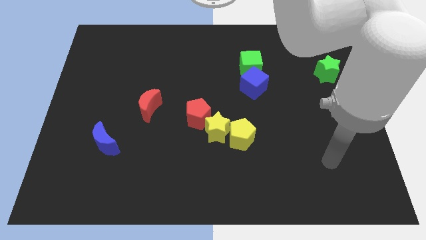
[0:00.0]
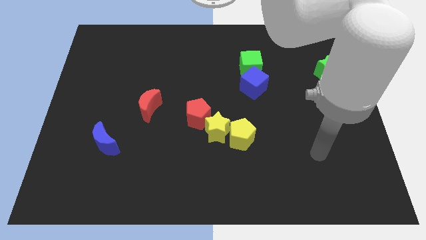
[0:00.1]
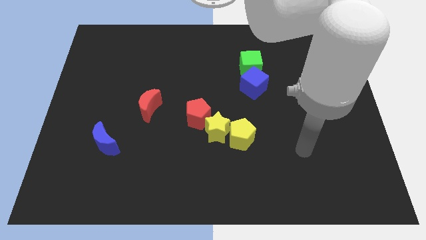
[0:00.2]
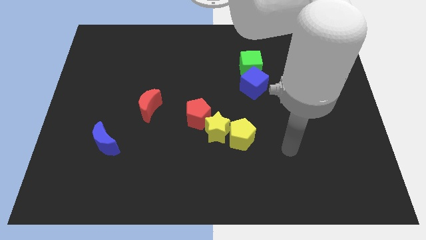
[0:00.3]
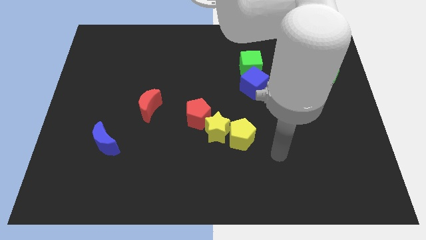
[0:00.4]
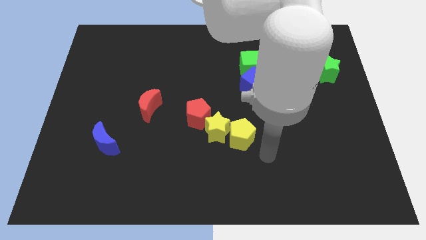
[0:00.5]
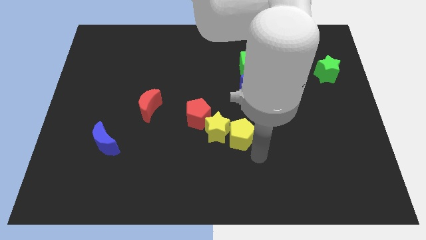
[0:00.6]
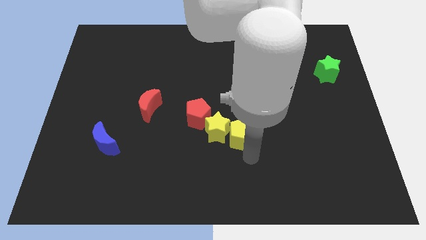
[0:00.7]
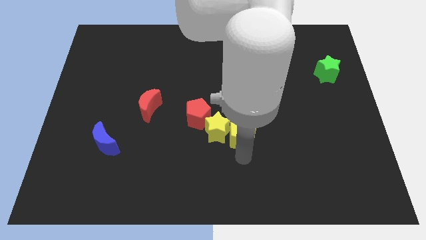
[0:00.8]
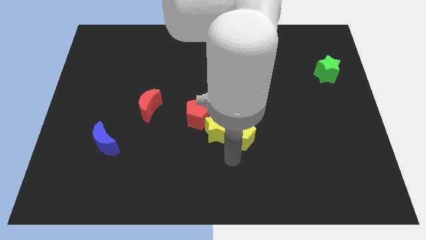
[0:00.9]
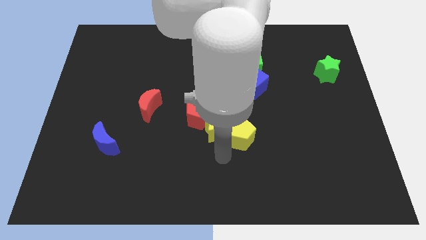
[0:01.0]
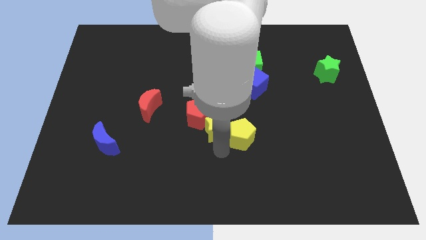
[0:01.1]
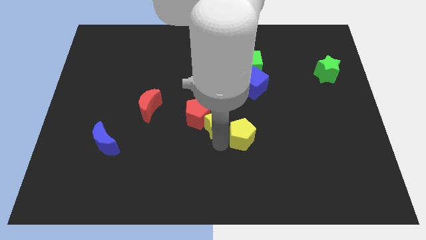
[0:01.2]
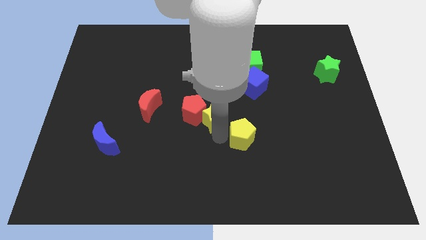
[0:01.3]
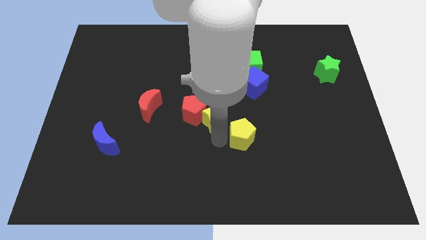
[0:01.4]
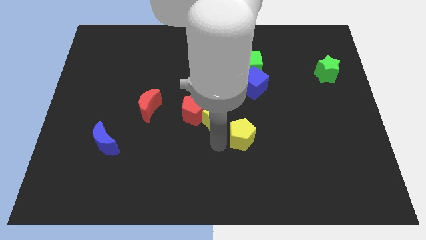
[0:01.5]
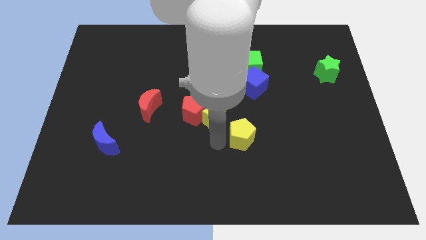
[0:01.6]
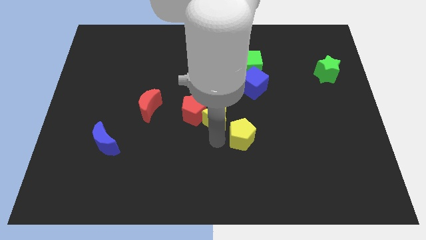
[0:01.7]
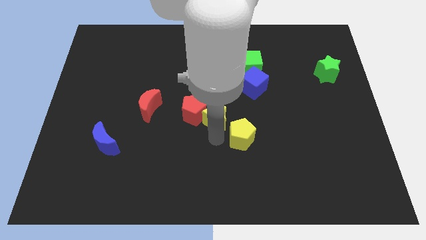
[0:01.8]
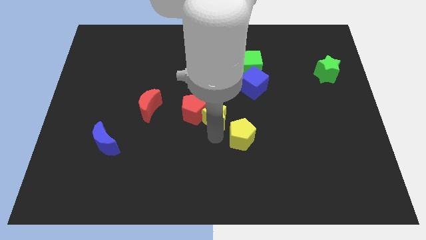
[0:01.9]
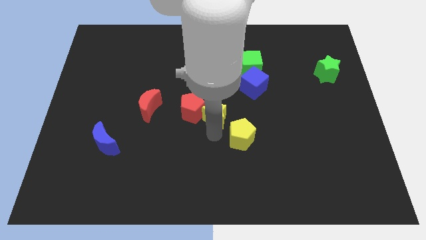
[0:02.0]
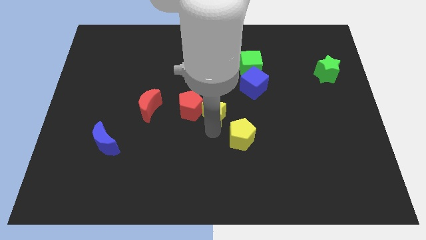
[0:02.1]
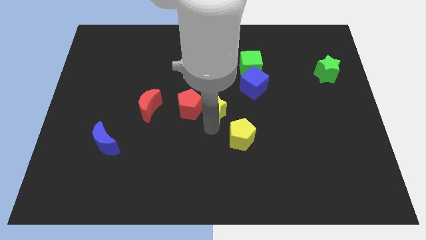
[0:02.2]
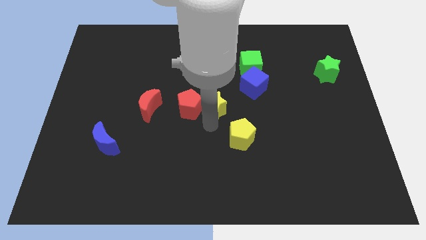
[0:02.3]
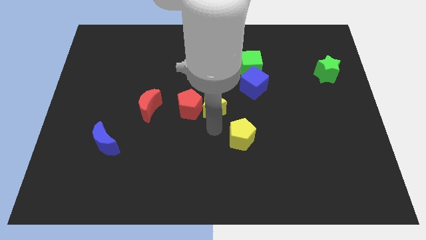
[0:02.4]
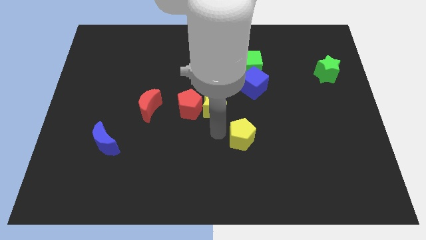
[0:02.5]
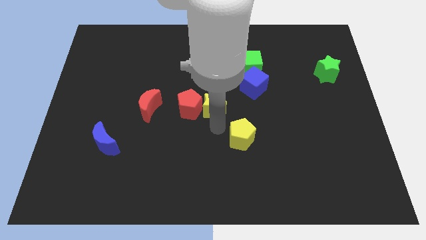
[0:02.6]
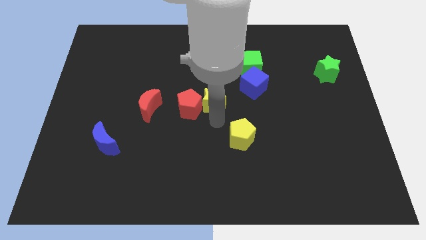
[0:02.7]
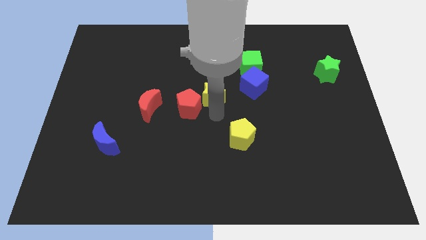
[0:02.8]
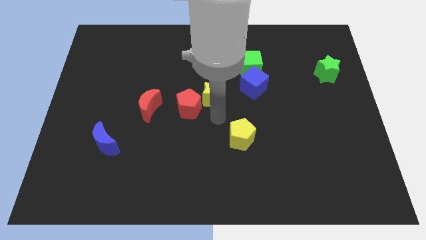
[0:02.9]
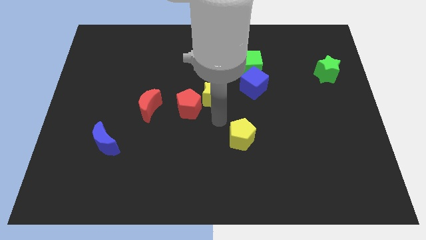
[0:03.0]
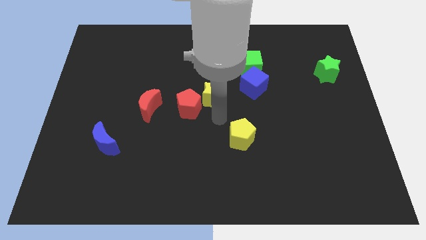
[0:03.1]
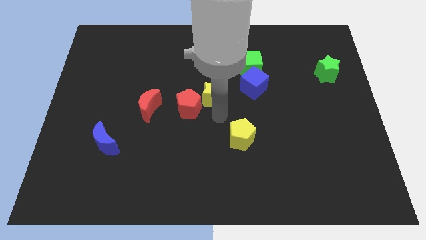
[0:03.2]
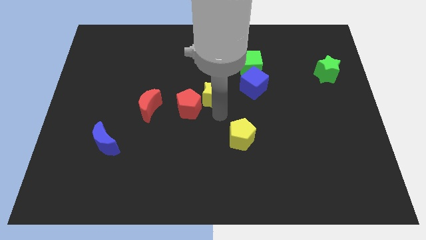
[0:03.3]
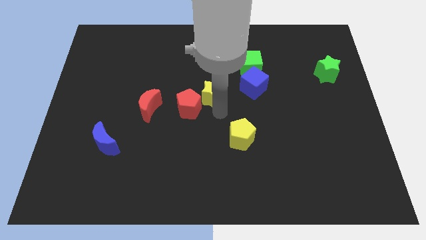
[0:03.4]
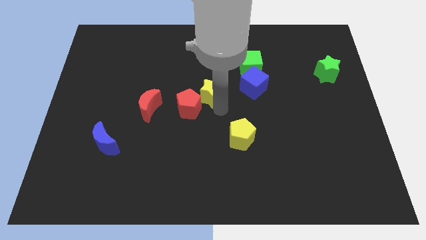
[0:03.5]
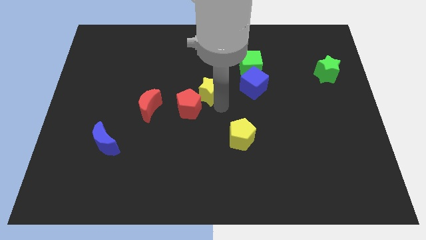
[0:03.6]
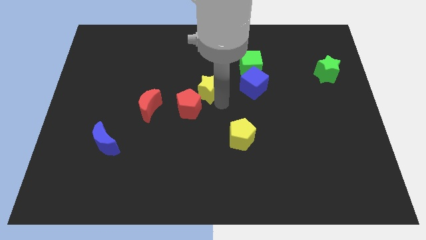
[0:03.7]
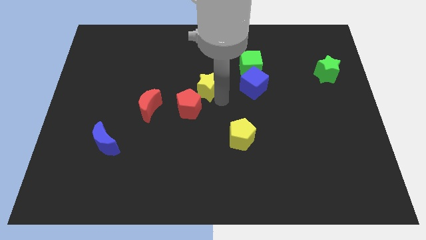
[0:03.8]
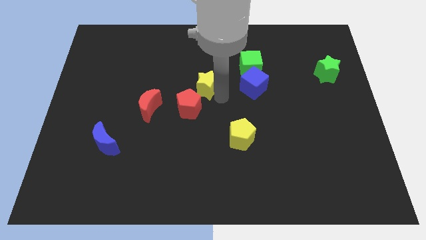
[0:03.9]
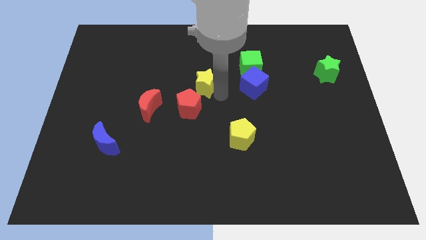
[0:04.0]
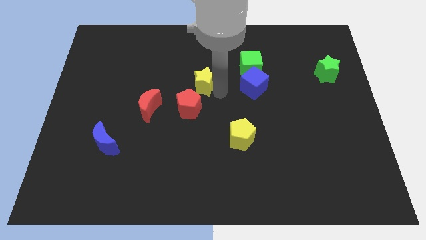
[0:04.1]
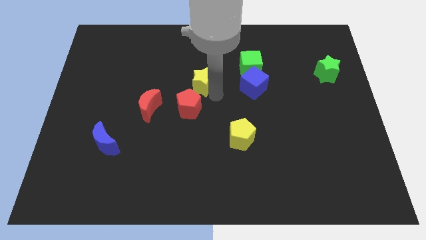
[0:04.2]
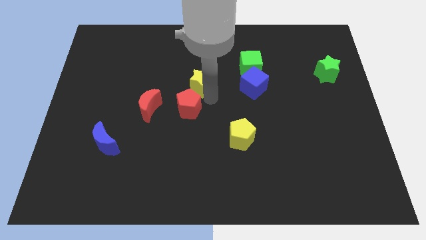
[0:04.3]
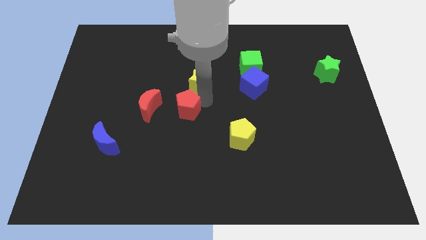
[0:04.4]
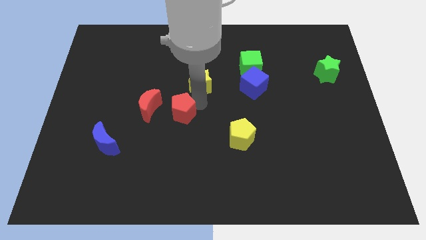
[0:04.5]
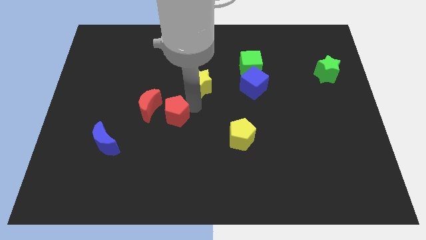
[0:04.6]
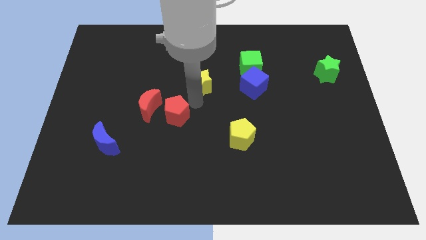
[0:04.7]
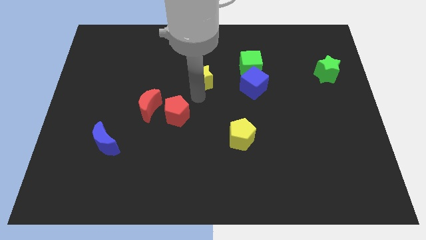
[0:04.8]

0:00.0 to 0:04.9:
push the yellow star left of the green cube

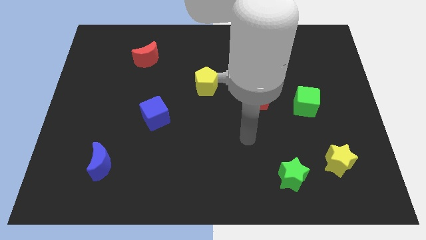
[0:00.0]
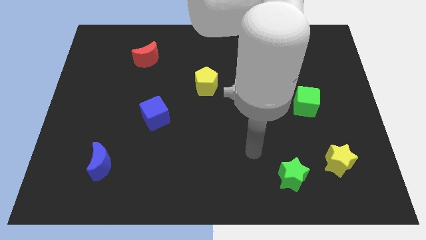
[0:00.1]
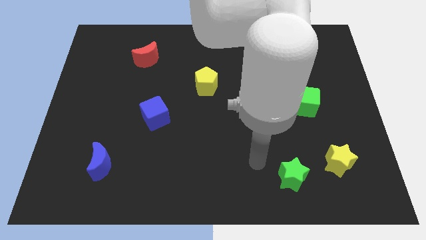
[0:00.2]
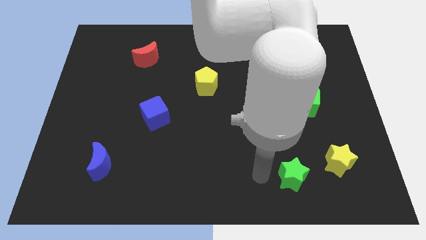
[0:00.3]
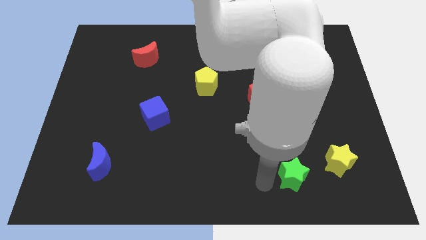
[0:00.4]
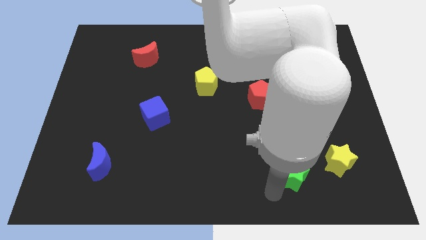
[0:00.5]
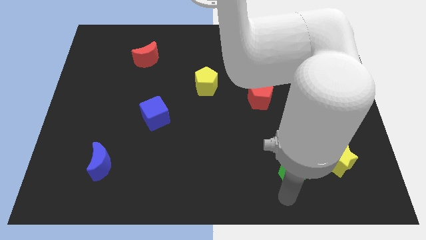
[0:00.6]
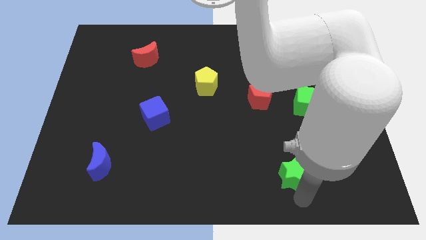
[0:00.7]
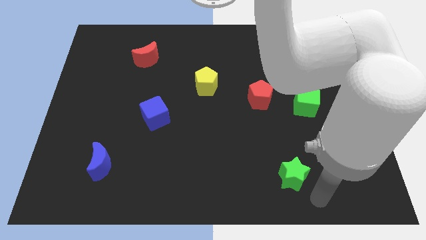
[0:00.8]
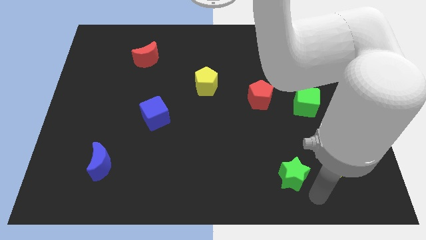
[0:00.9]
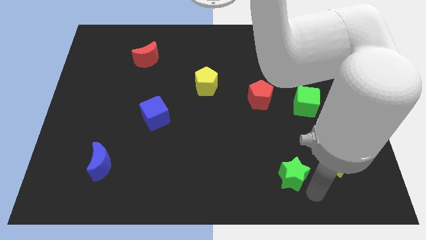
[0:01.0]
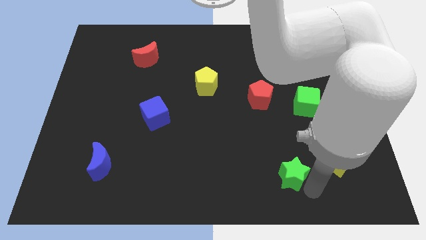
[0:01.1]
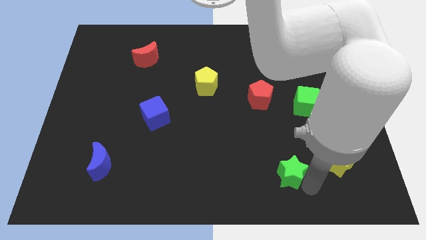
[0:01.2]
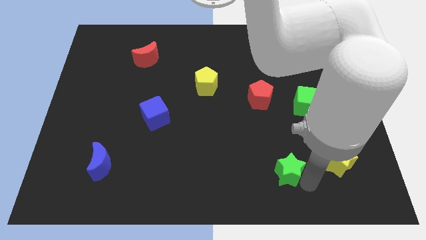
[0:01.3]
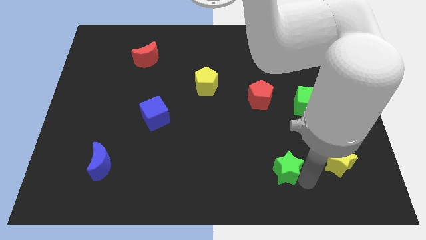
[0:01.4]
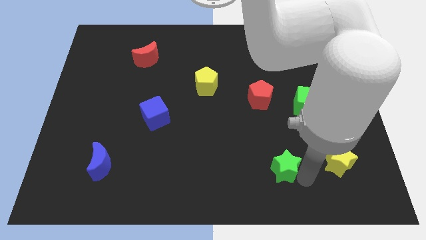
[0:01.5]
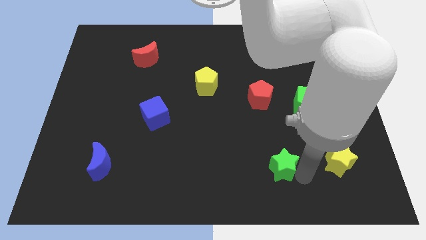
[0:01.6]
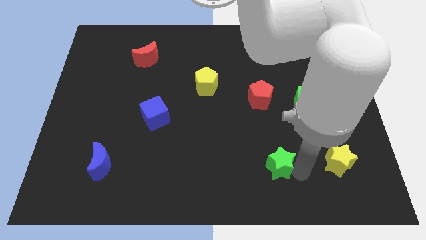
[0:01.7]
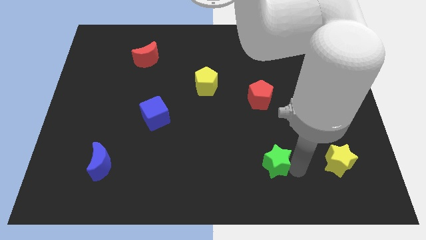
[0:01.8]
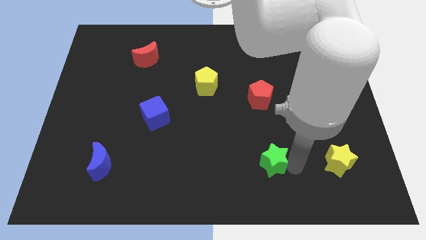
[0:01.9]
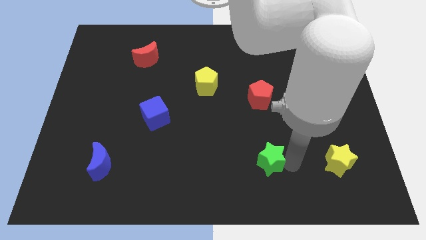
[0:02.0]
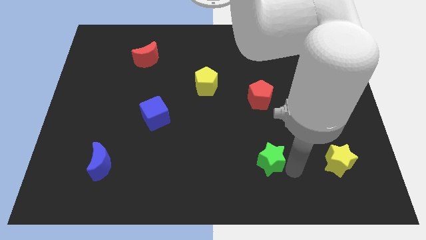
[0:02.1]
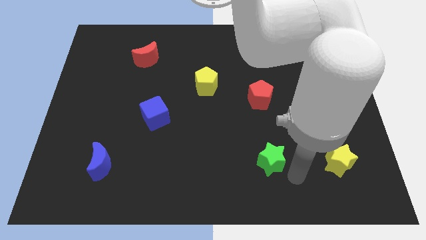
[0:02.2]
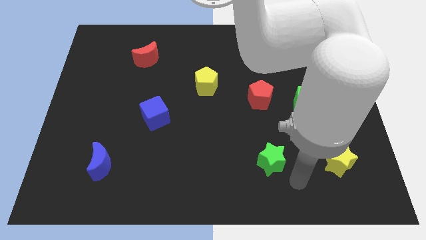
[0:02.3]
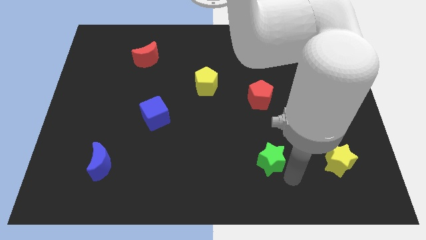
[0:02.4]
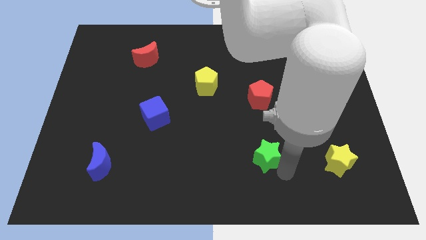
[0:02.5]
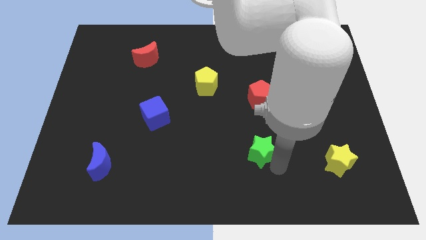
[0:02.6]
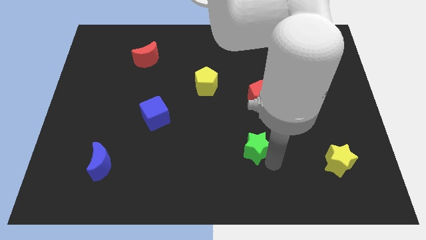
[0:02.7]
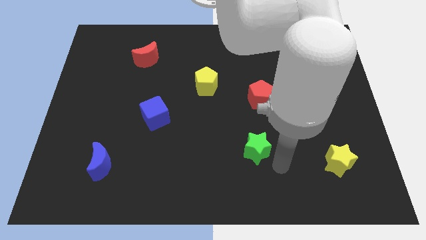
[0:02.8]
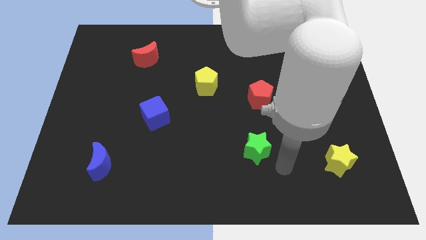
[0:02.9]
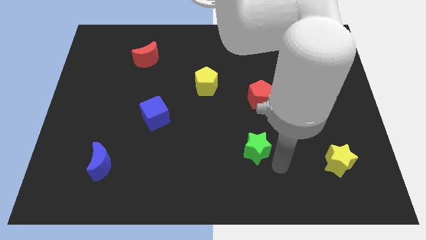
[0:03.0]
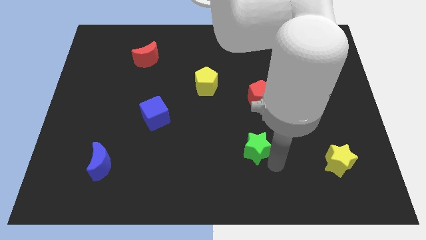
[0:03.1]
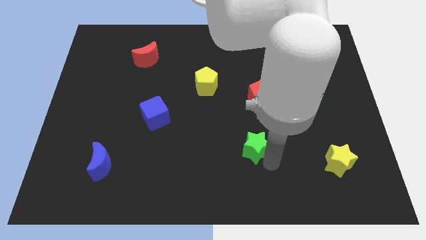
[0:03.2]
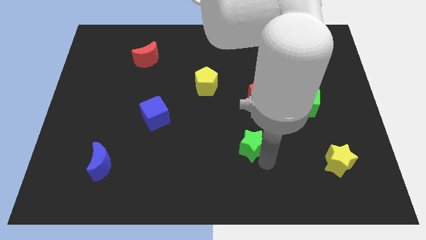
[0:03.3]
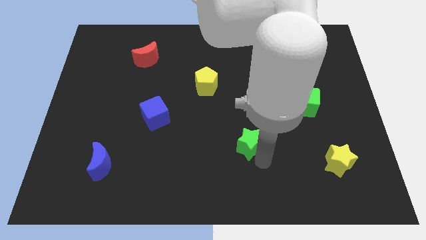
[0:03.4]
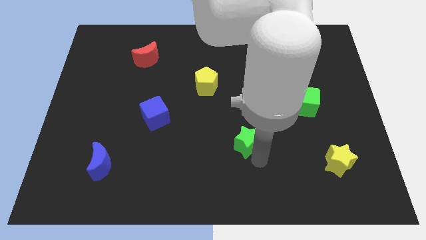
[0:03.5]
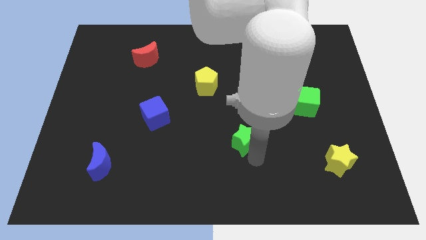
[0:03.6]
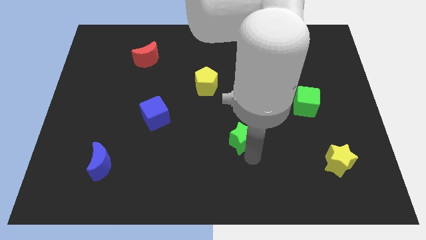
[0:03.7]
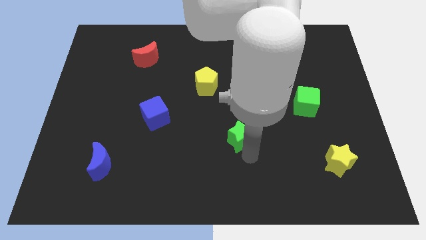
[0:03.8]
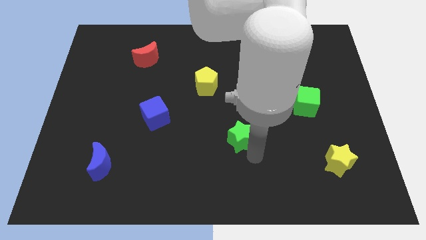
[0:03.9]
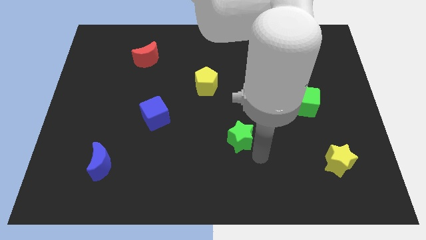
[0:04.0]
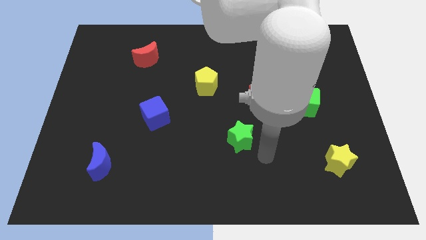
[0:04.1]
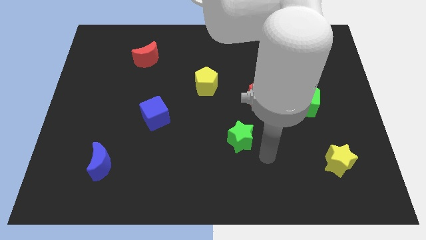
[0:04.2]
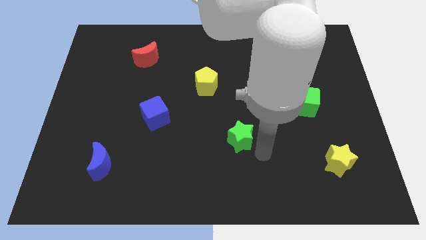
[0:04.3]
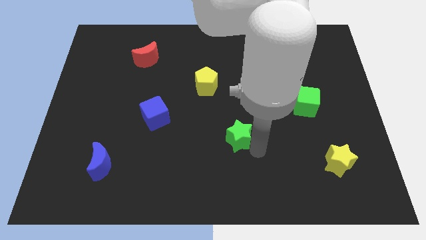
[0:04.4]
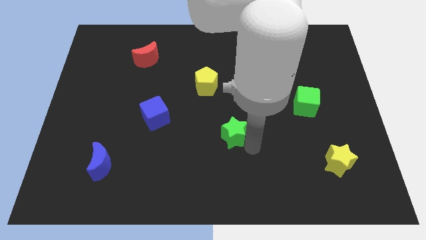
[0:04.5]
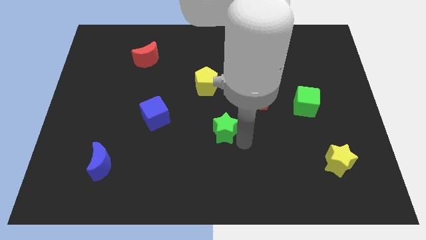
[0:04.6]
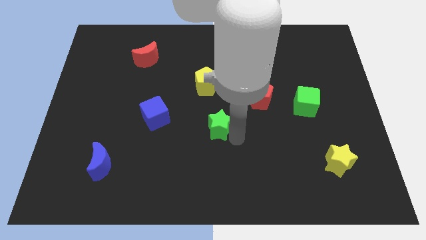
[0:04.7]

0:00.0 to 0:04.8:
move the green star right of the blue cube
